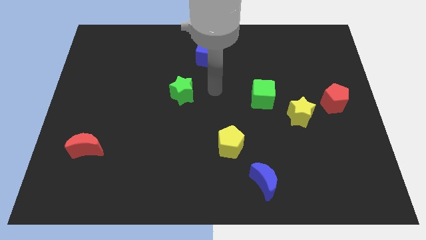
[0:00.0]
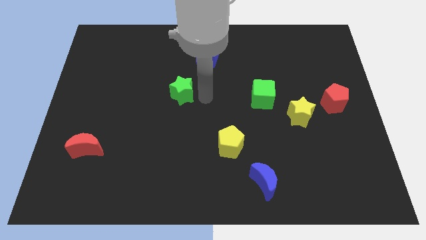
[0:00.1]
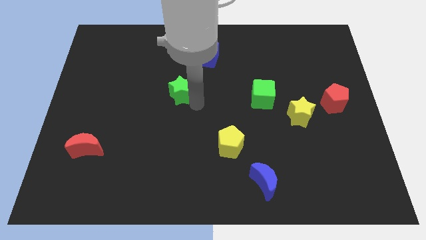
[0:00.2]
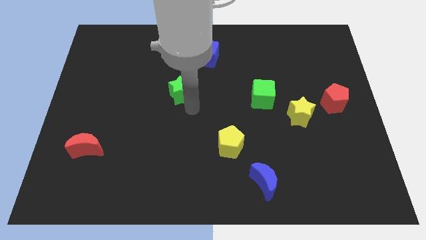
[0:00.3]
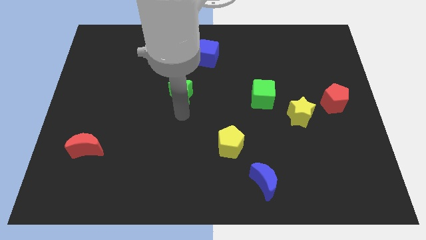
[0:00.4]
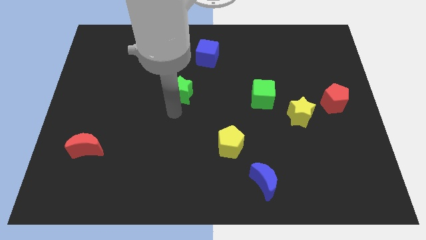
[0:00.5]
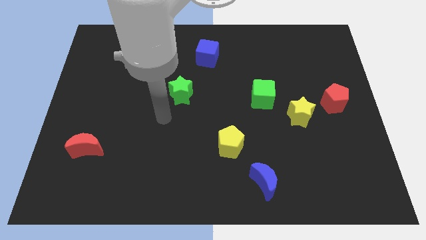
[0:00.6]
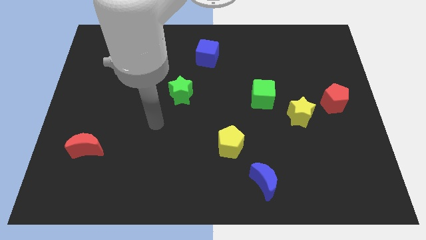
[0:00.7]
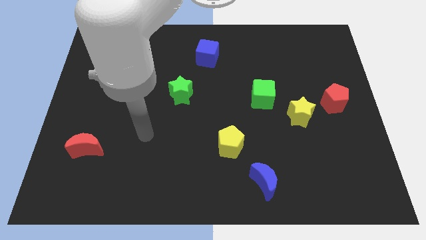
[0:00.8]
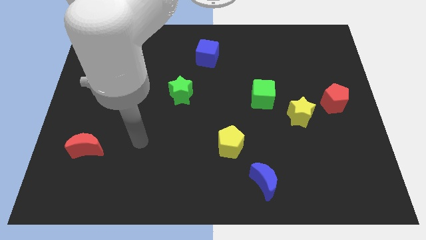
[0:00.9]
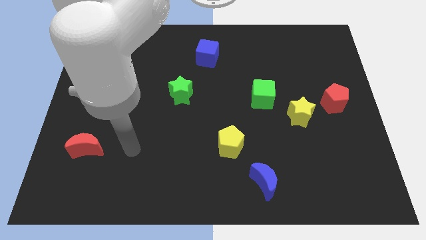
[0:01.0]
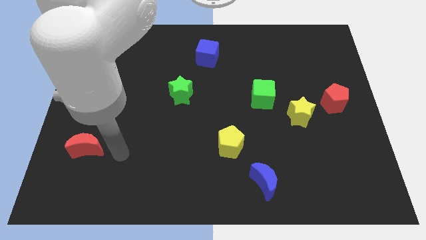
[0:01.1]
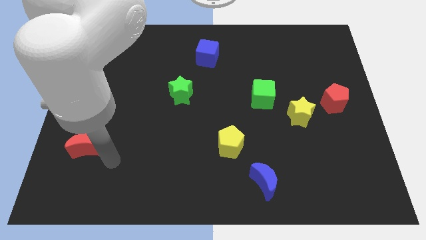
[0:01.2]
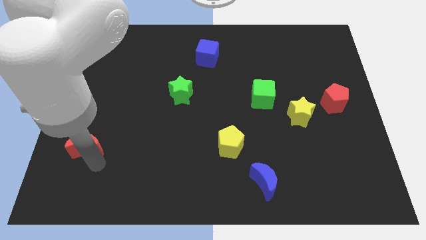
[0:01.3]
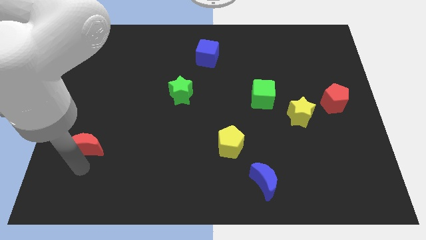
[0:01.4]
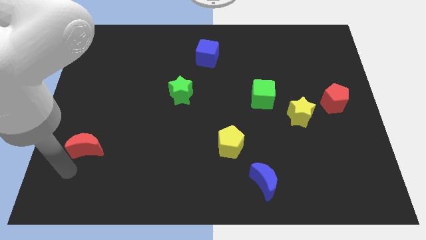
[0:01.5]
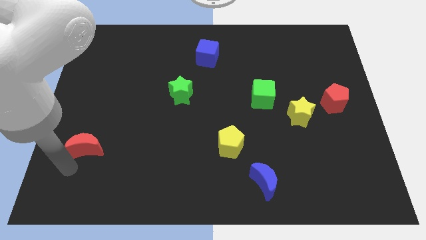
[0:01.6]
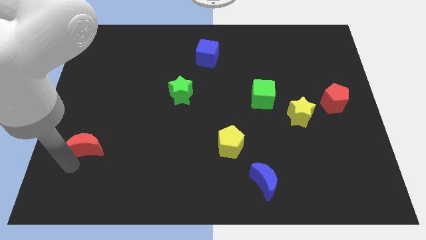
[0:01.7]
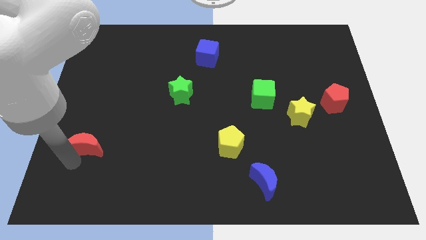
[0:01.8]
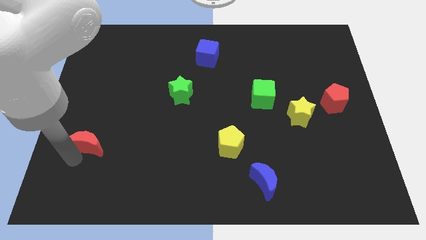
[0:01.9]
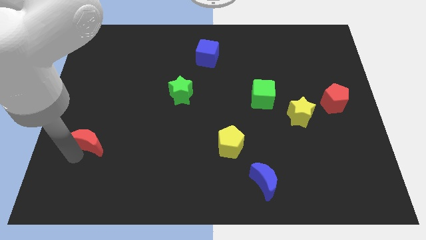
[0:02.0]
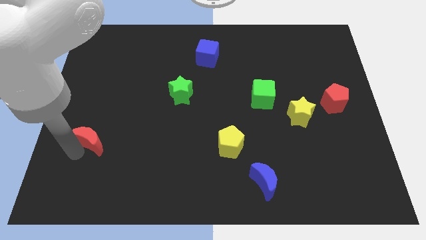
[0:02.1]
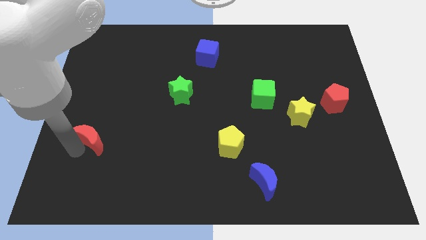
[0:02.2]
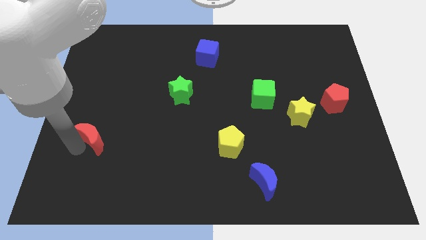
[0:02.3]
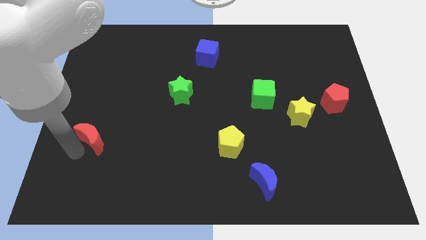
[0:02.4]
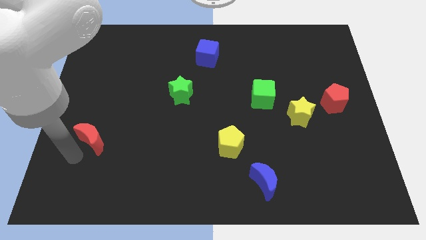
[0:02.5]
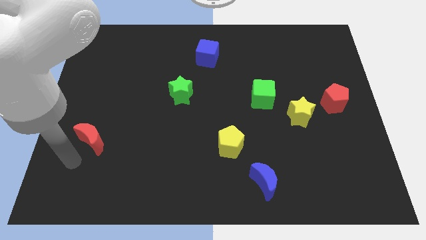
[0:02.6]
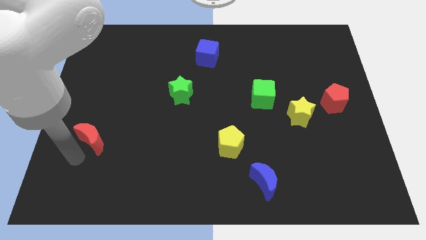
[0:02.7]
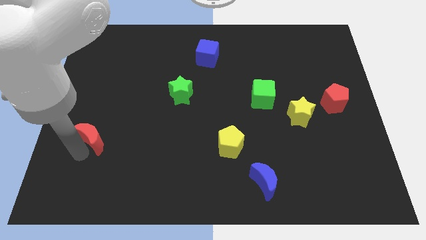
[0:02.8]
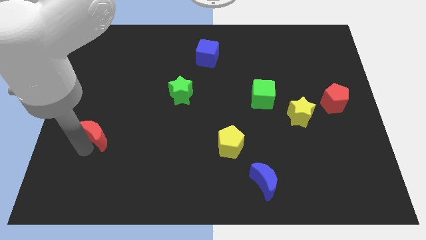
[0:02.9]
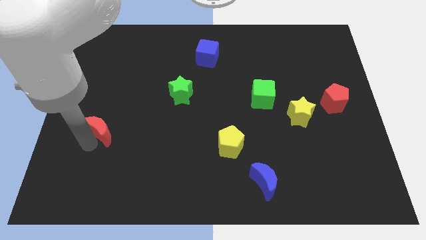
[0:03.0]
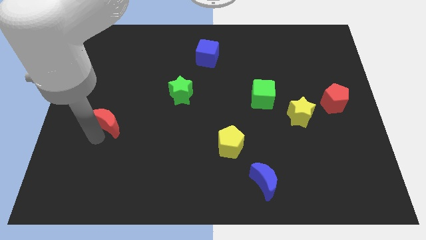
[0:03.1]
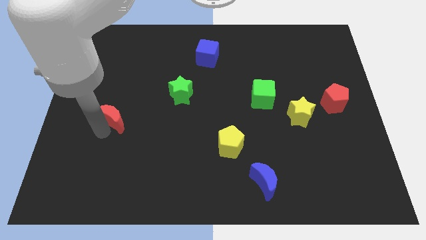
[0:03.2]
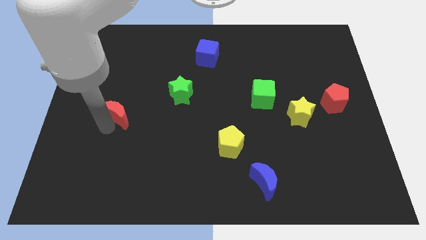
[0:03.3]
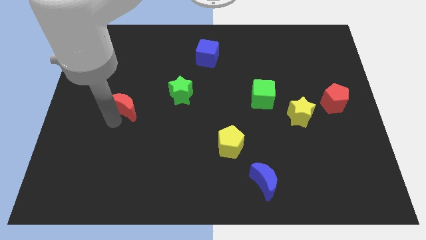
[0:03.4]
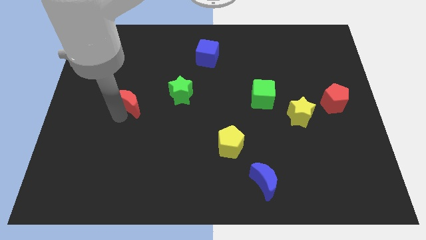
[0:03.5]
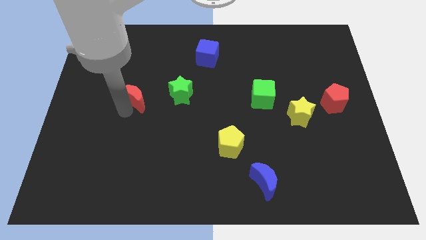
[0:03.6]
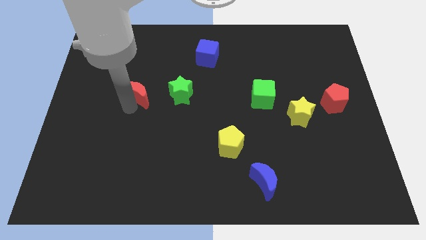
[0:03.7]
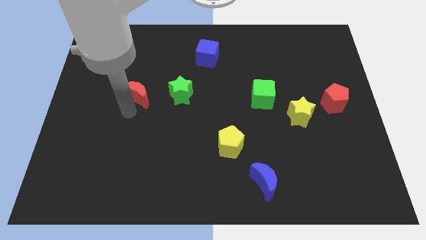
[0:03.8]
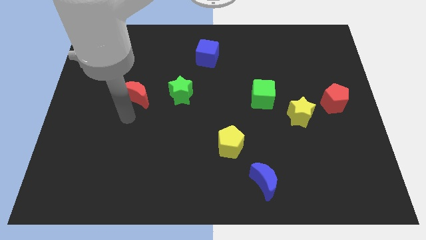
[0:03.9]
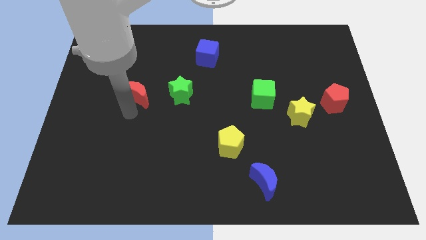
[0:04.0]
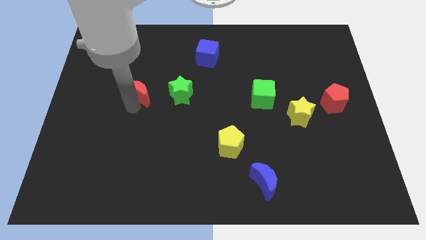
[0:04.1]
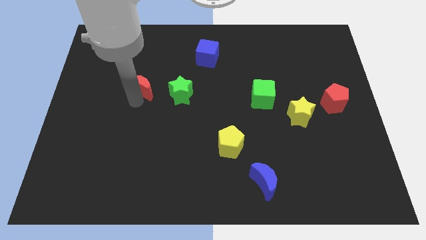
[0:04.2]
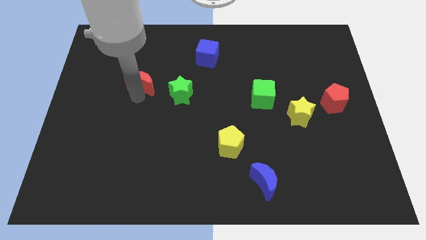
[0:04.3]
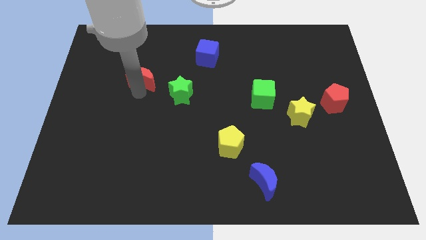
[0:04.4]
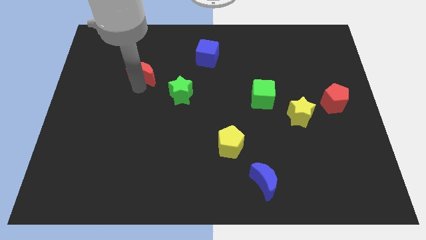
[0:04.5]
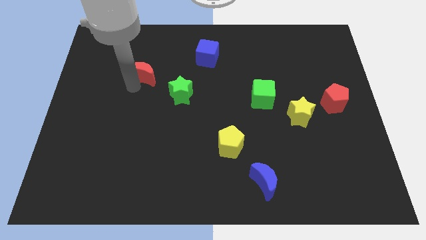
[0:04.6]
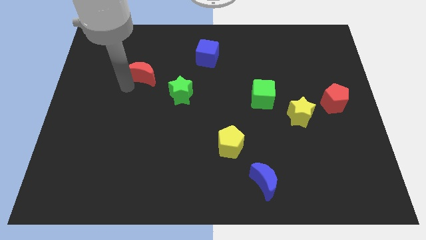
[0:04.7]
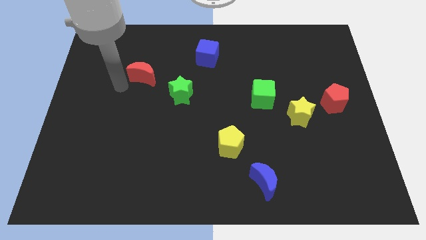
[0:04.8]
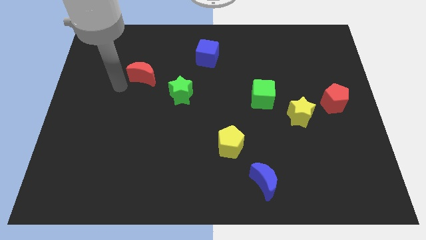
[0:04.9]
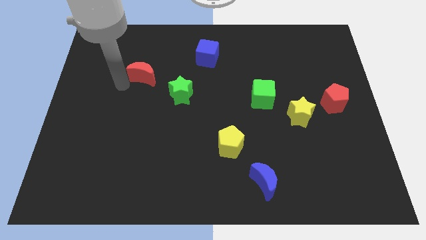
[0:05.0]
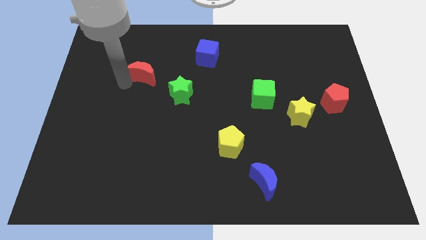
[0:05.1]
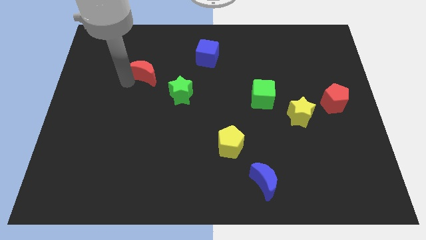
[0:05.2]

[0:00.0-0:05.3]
push the red moon diagonally up and right

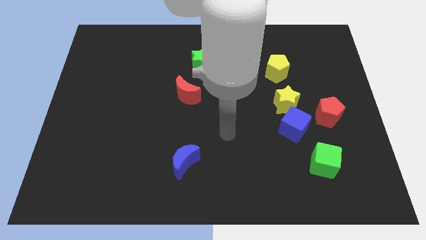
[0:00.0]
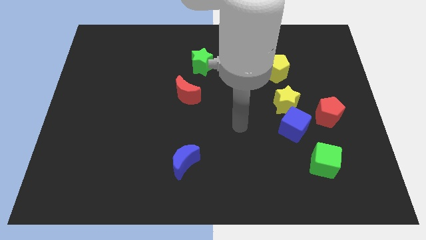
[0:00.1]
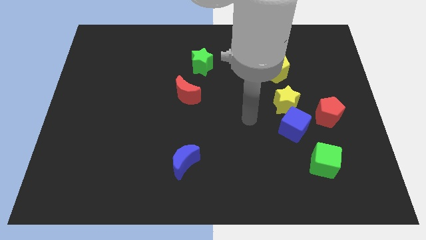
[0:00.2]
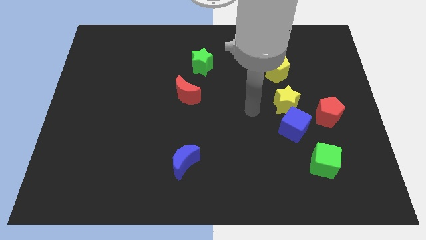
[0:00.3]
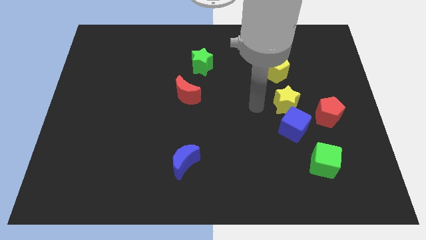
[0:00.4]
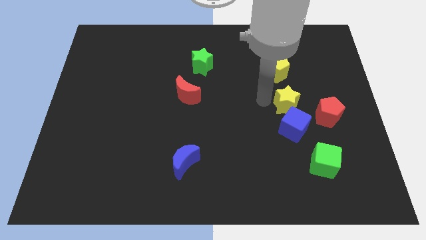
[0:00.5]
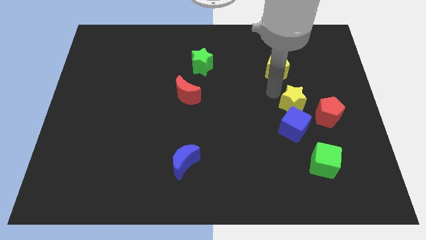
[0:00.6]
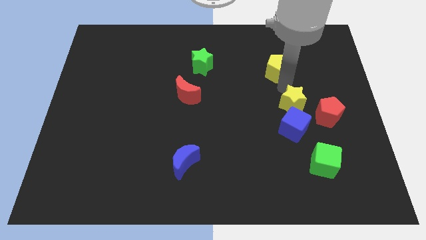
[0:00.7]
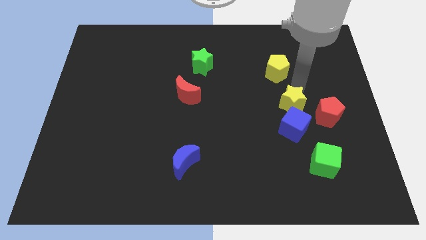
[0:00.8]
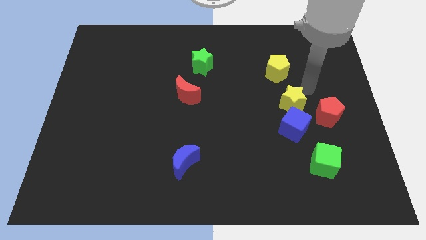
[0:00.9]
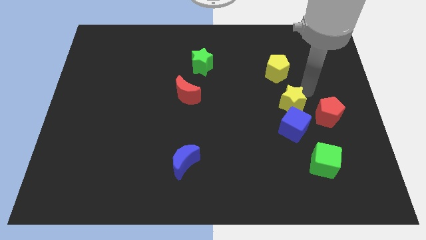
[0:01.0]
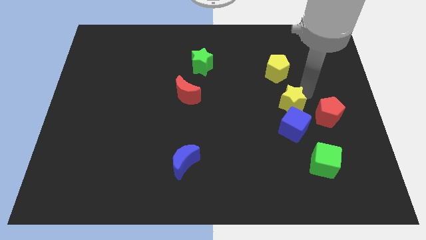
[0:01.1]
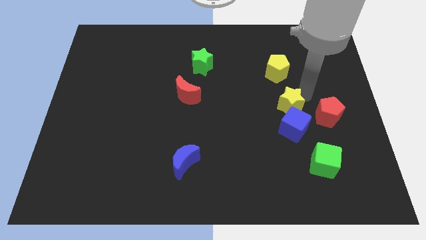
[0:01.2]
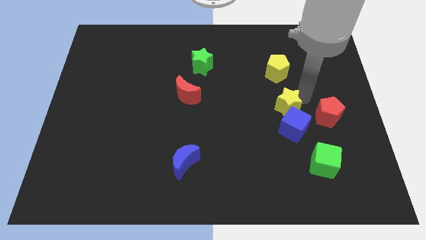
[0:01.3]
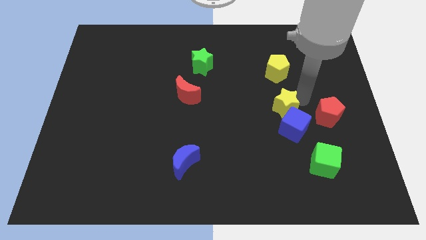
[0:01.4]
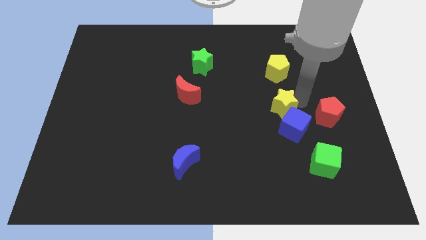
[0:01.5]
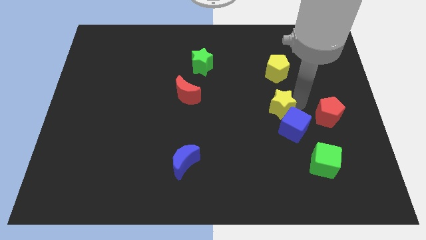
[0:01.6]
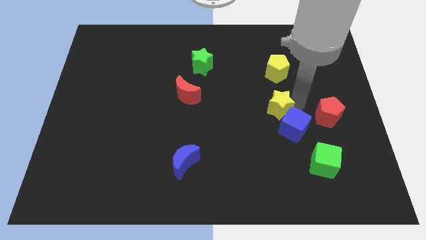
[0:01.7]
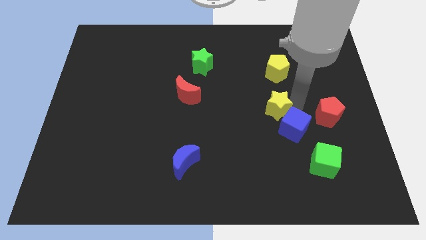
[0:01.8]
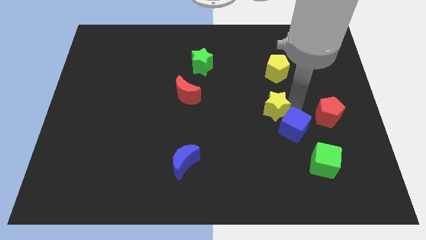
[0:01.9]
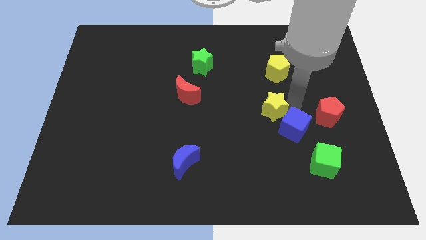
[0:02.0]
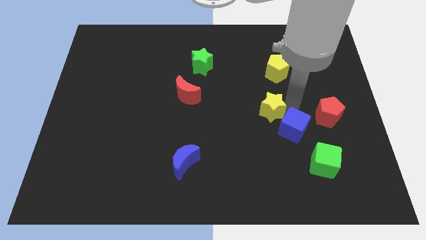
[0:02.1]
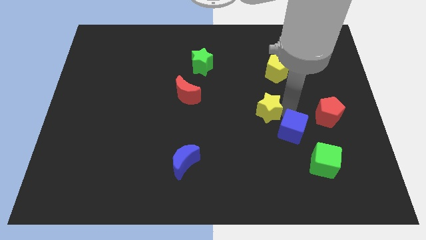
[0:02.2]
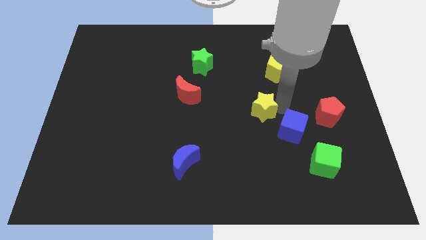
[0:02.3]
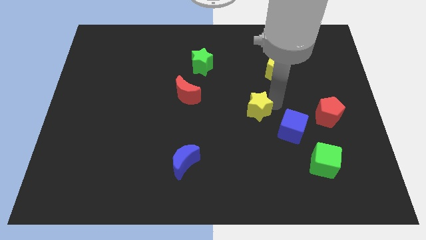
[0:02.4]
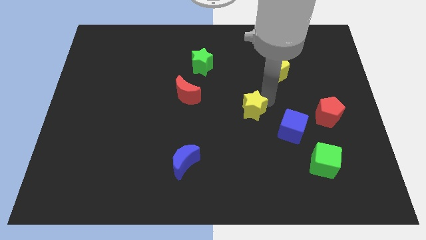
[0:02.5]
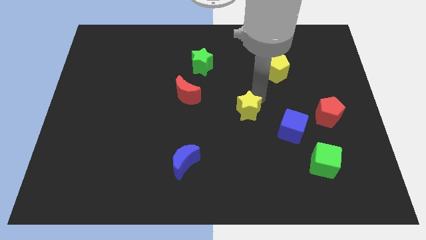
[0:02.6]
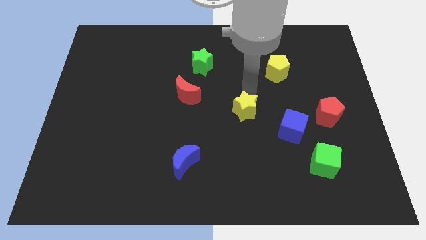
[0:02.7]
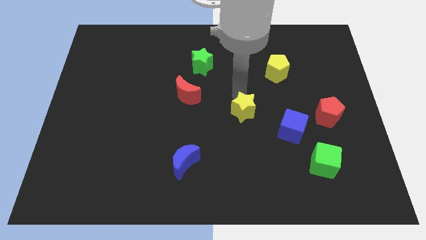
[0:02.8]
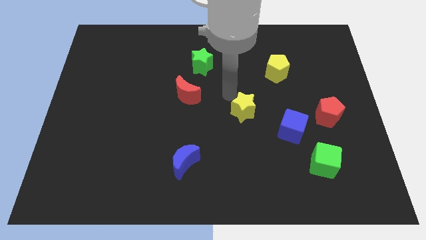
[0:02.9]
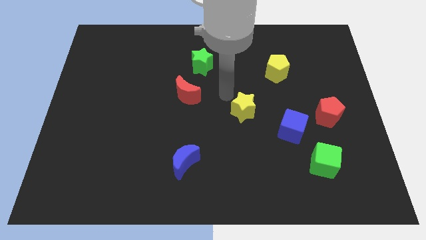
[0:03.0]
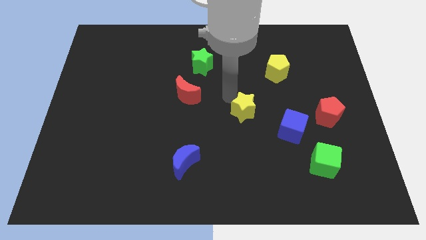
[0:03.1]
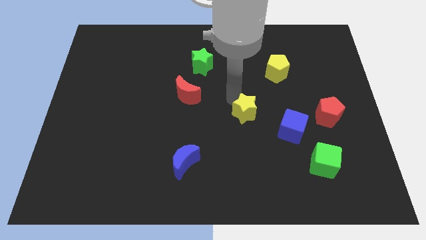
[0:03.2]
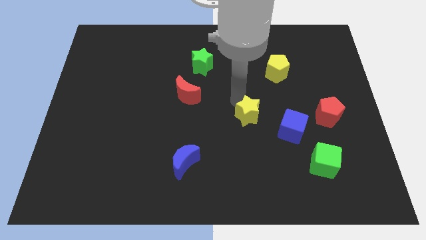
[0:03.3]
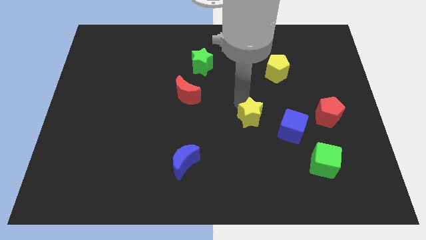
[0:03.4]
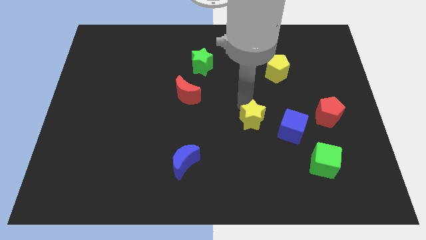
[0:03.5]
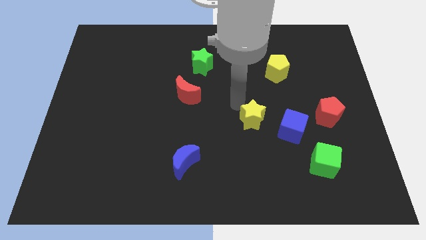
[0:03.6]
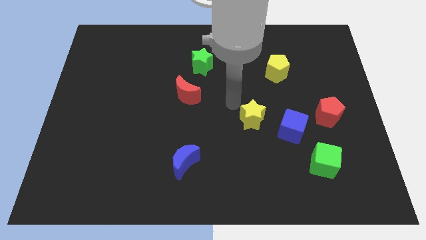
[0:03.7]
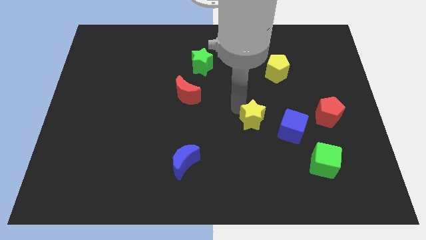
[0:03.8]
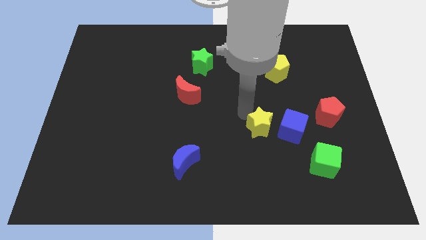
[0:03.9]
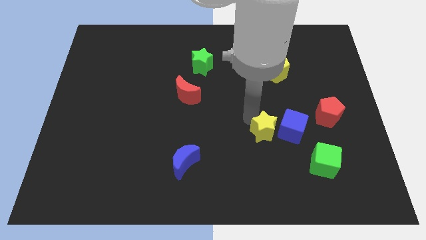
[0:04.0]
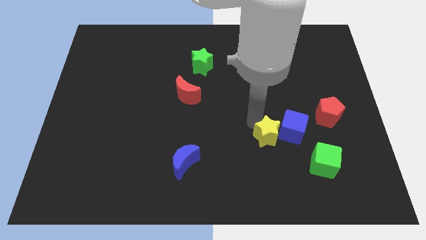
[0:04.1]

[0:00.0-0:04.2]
move the yellow star downwards a bit
